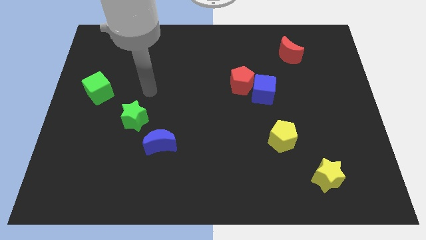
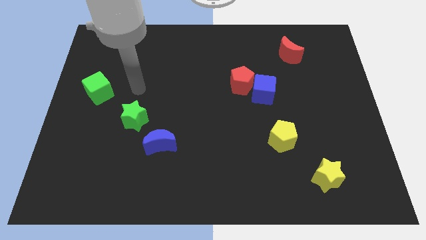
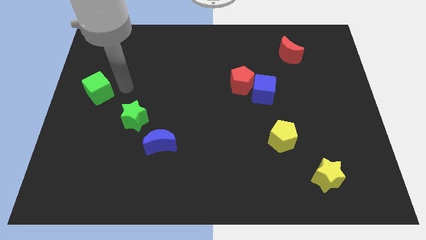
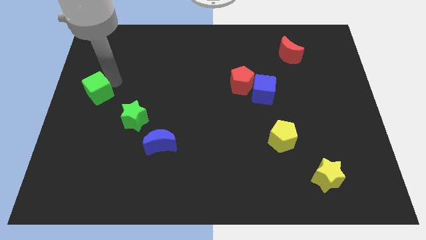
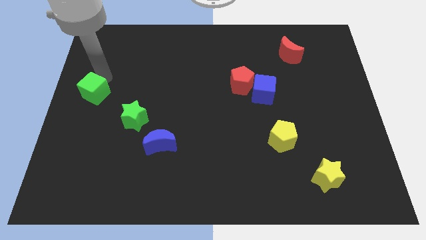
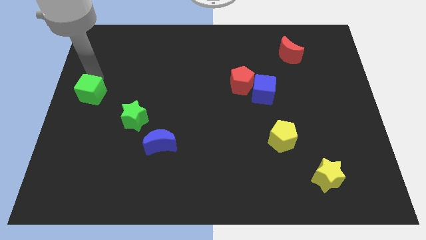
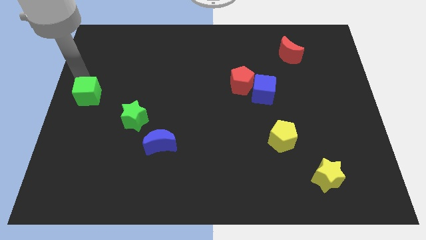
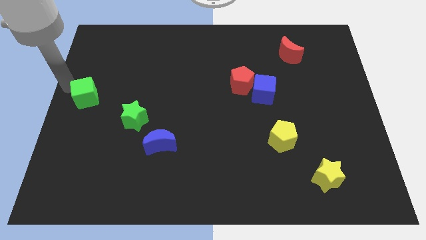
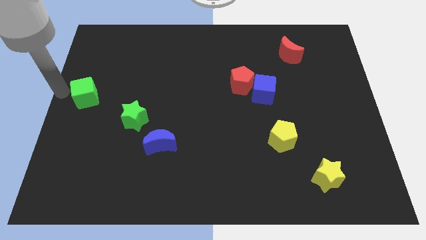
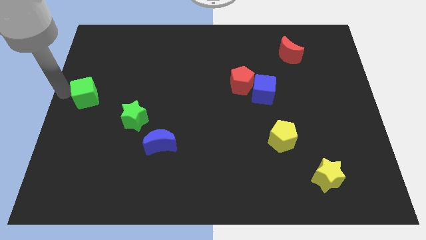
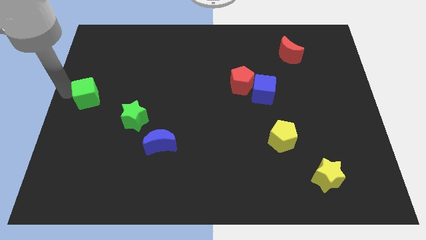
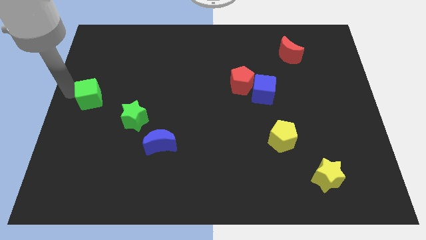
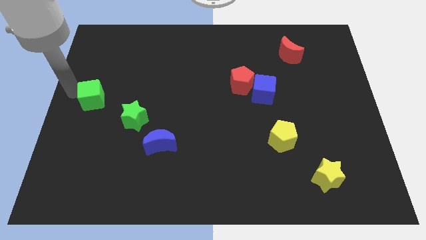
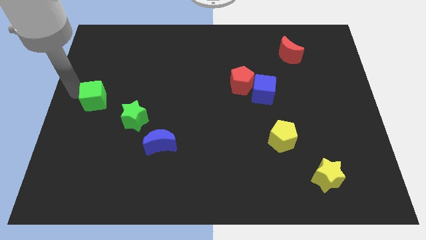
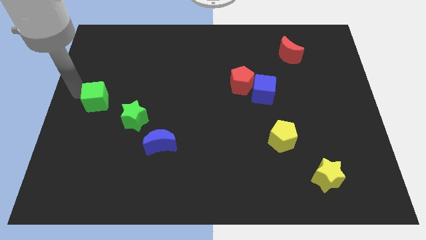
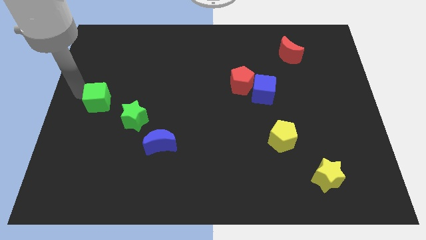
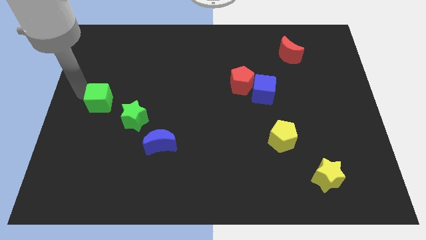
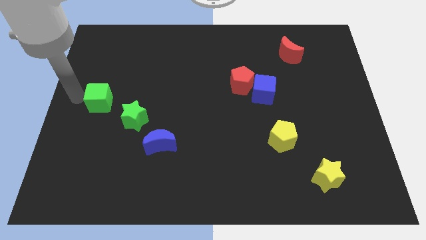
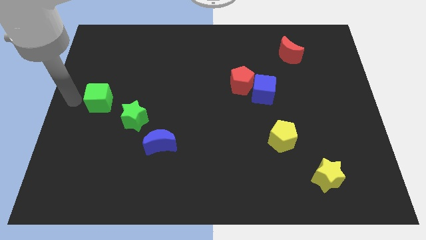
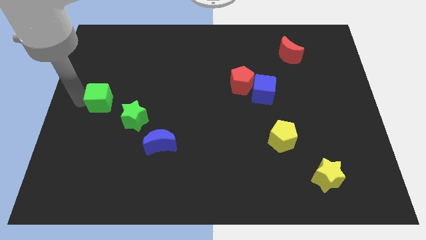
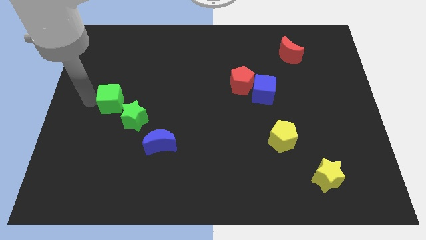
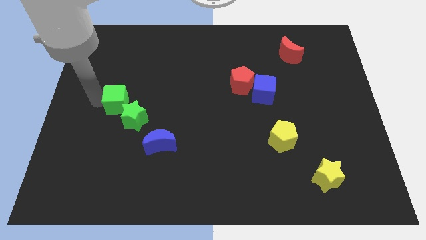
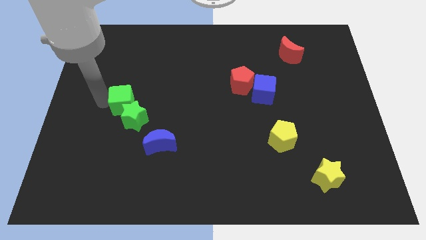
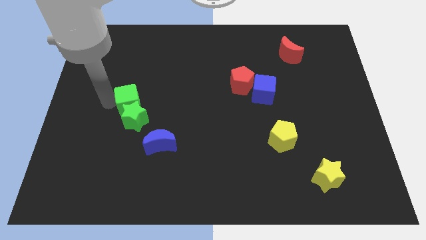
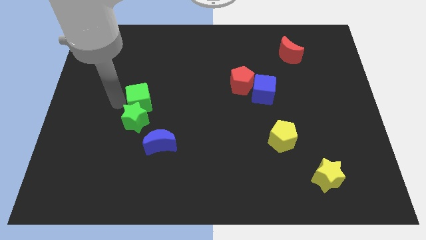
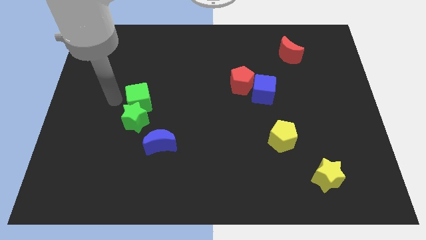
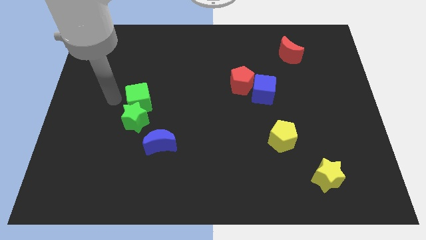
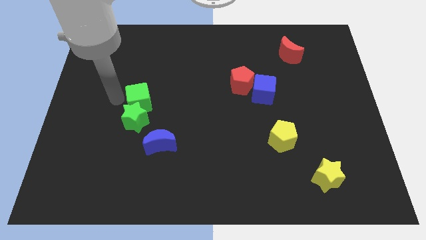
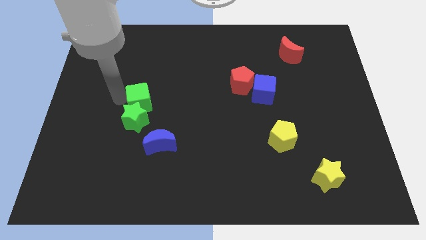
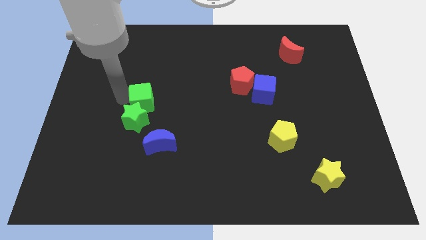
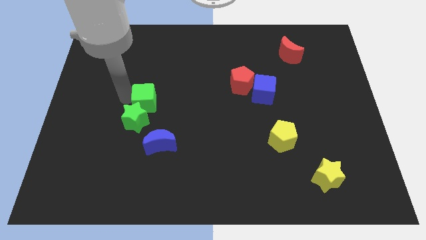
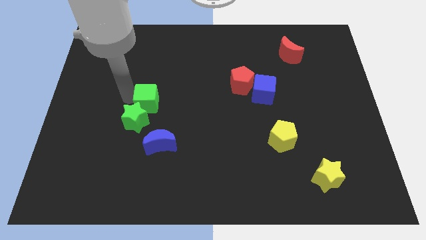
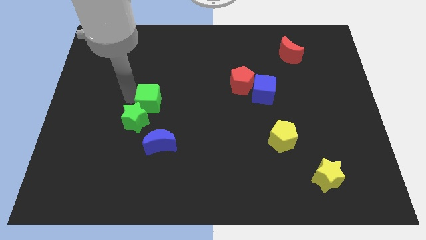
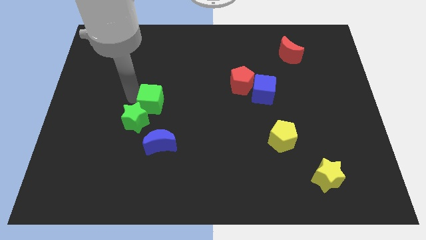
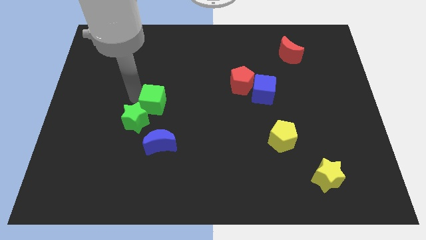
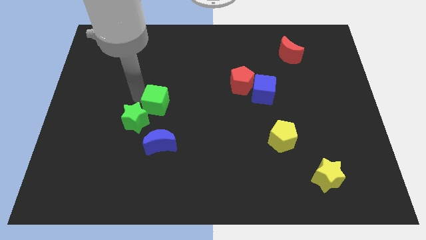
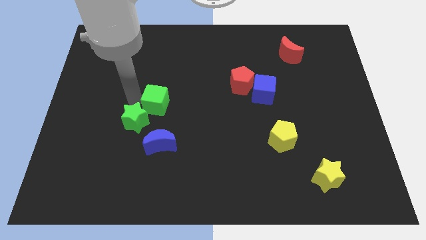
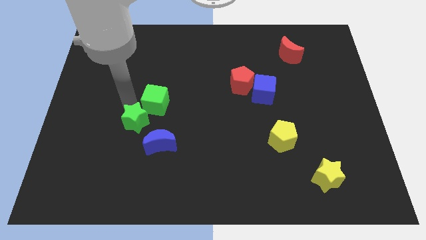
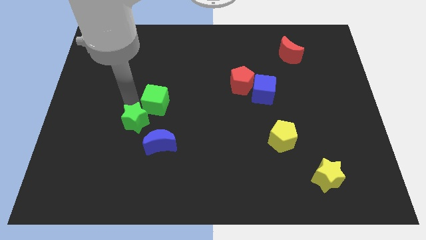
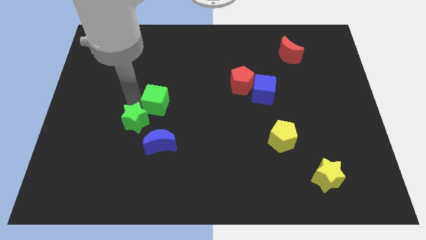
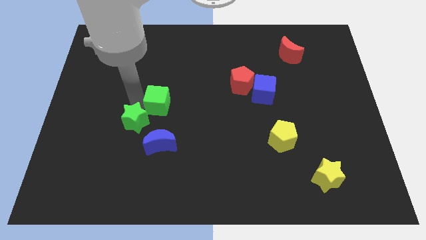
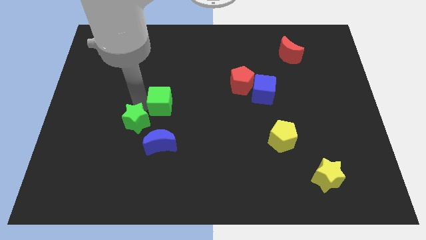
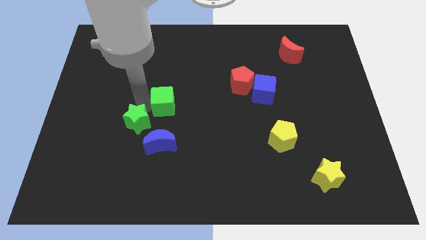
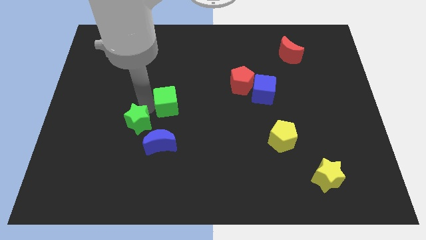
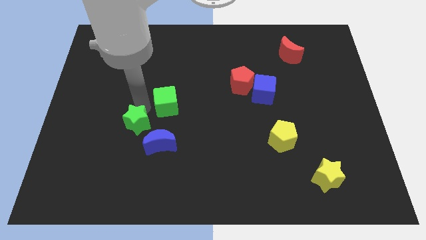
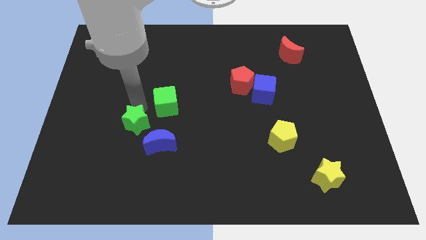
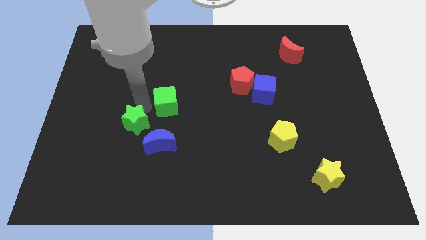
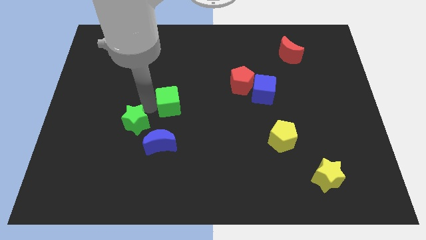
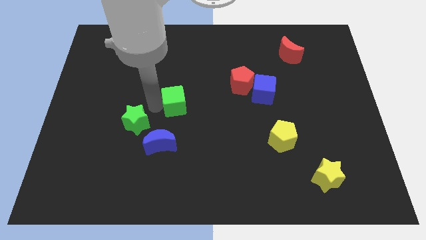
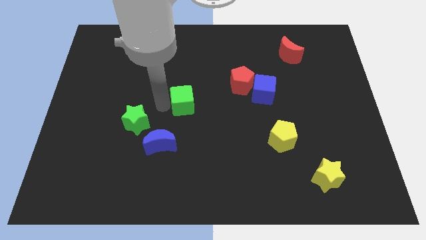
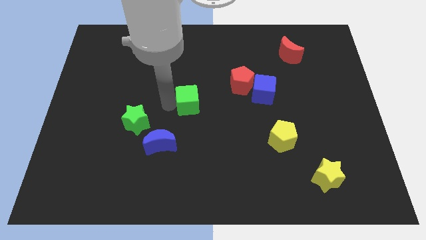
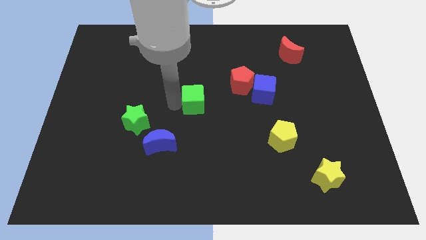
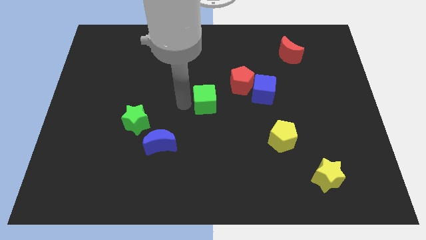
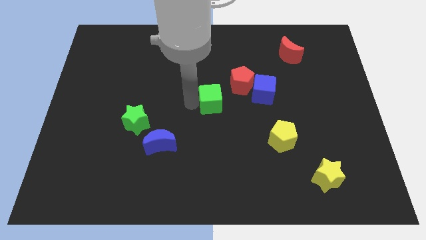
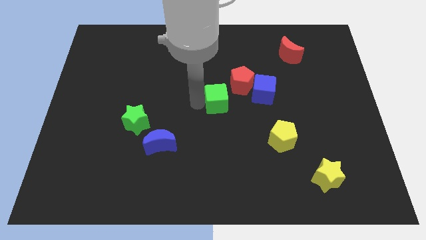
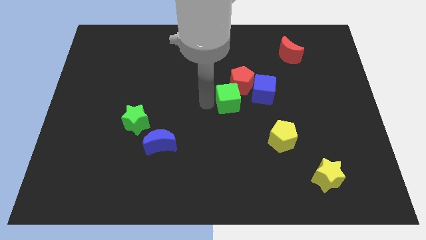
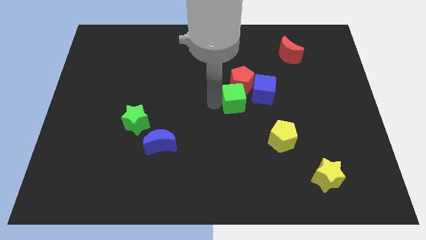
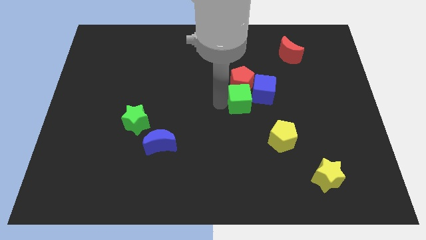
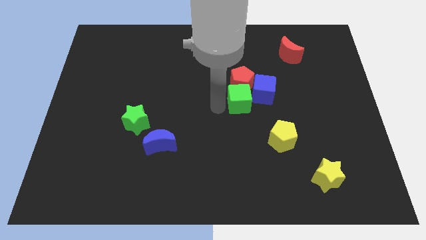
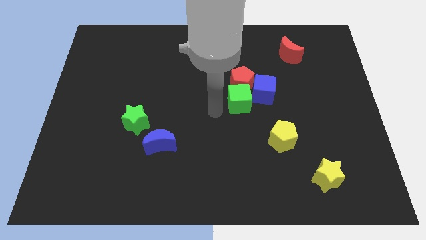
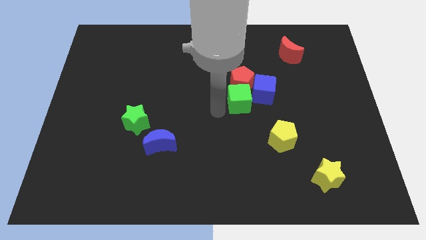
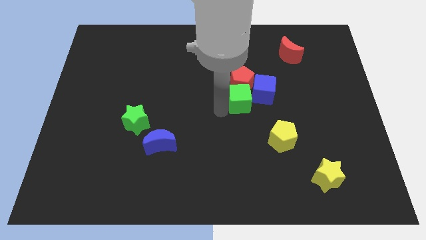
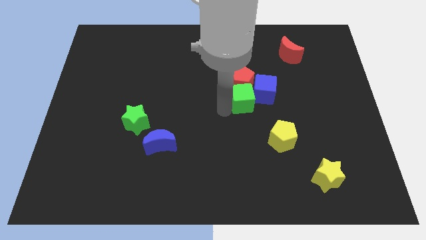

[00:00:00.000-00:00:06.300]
push the green cube next to the blue cube
